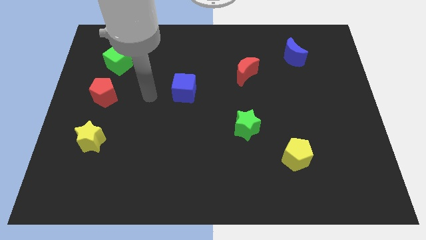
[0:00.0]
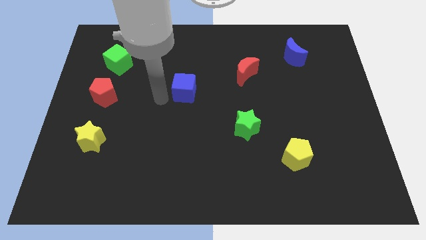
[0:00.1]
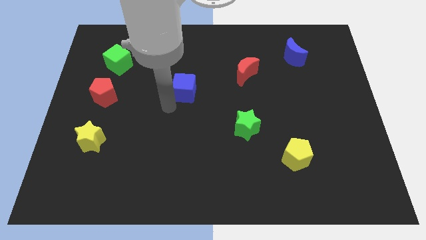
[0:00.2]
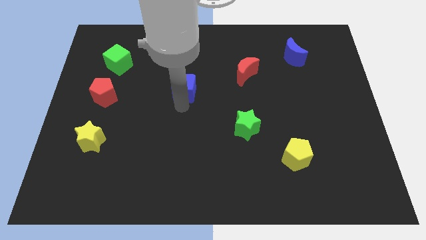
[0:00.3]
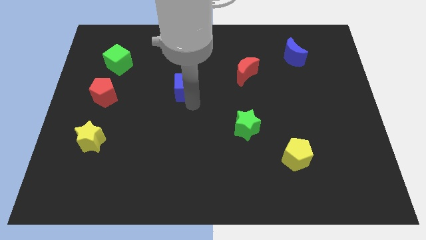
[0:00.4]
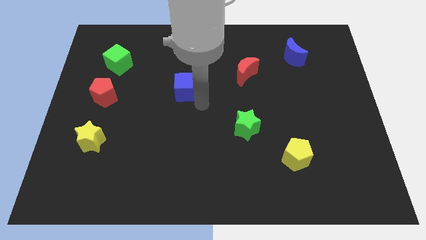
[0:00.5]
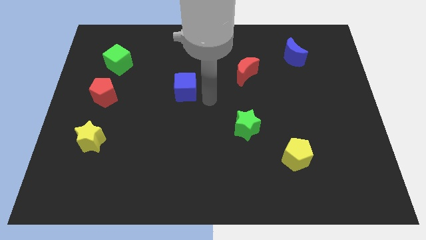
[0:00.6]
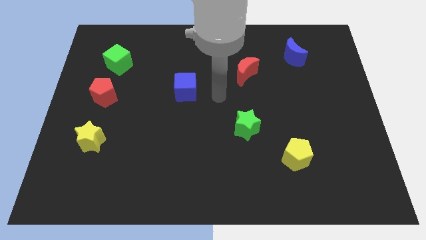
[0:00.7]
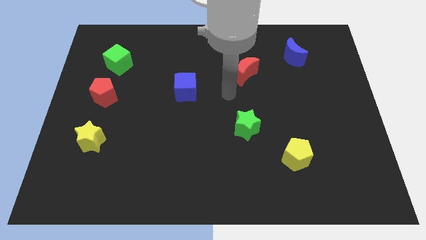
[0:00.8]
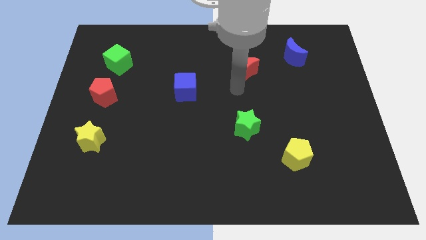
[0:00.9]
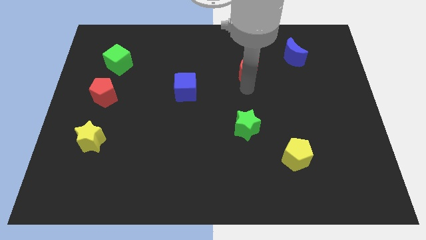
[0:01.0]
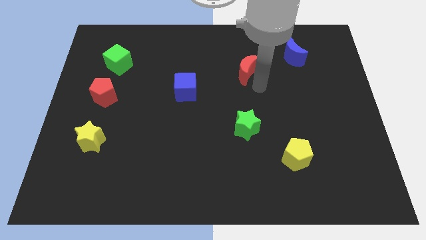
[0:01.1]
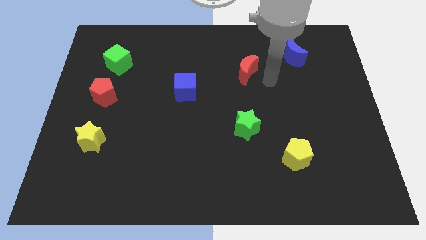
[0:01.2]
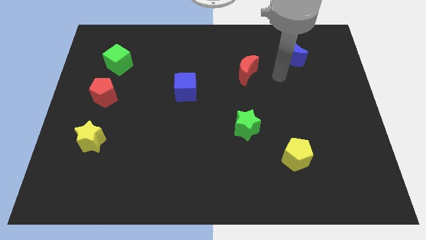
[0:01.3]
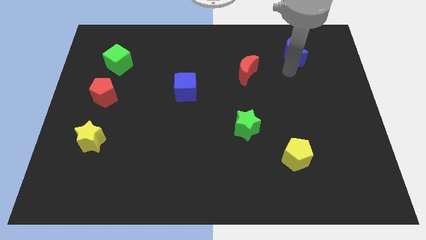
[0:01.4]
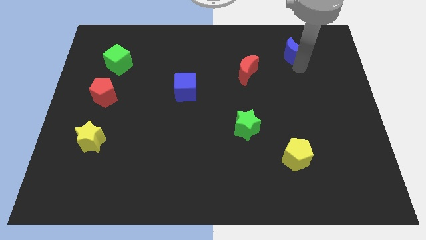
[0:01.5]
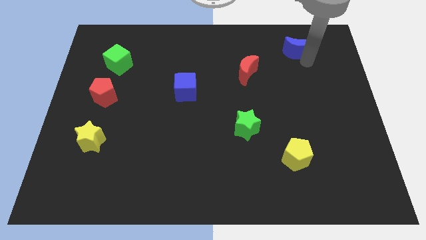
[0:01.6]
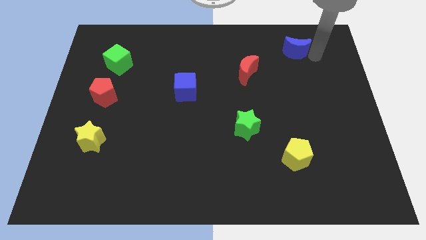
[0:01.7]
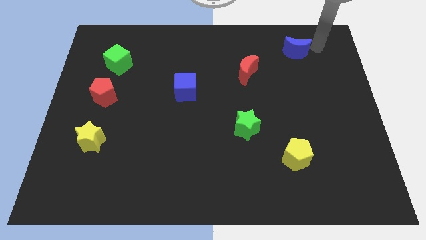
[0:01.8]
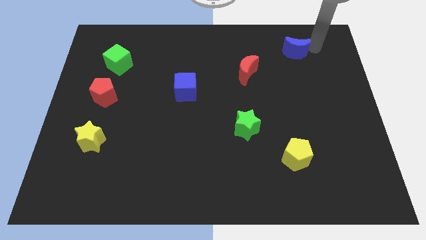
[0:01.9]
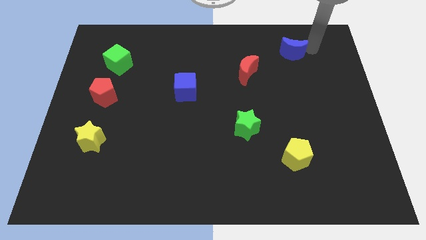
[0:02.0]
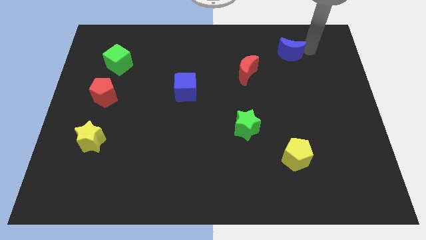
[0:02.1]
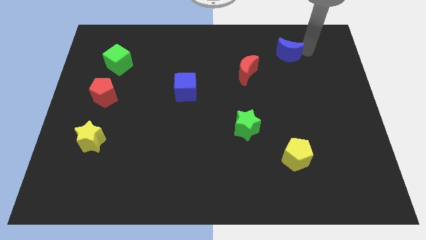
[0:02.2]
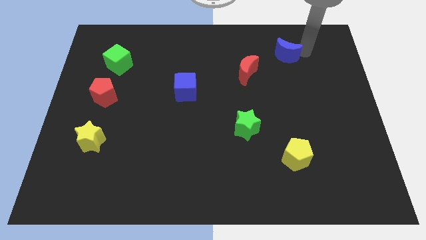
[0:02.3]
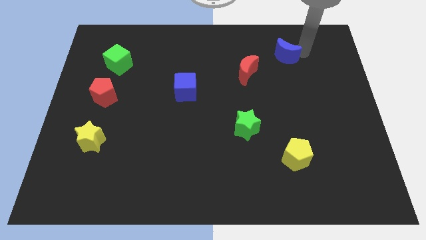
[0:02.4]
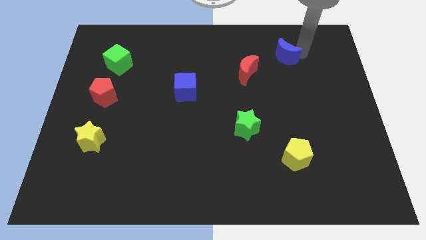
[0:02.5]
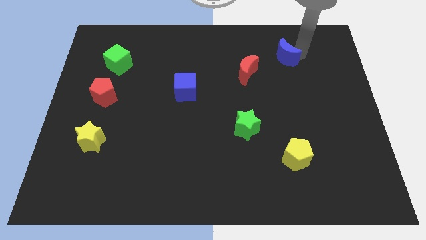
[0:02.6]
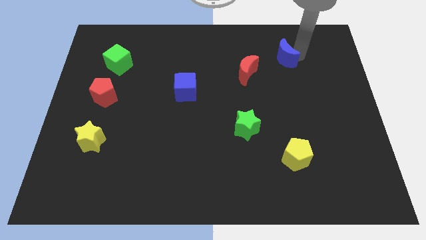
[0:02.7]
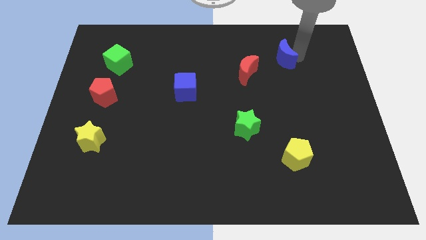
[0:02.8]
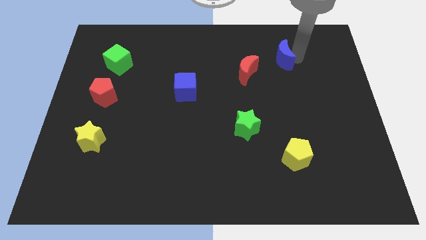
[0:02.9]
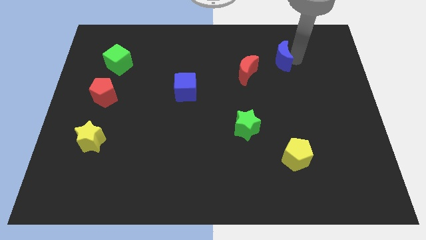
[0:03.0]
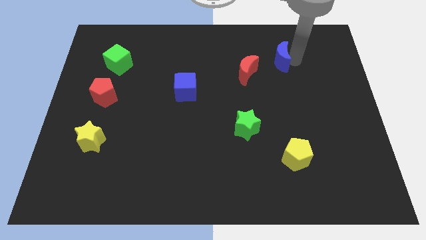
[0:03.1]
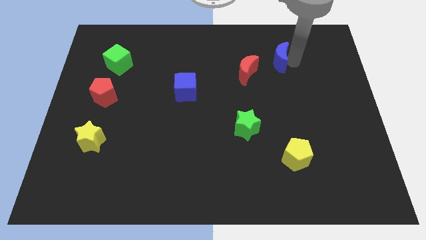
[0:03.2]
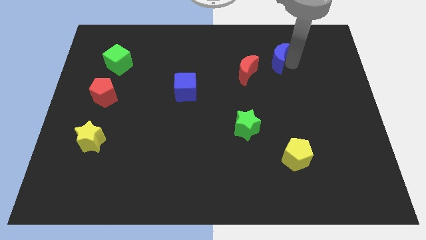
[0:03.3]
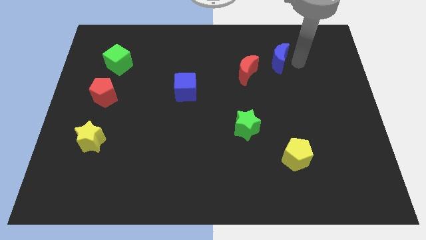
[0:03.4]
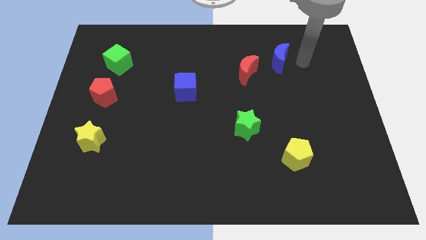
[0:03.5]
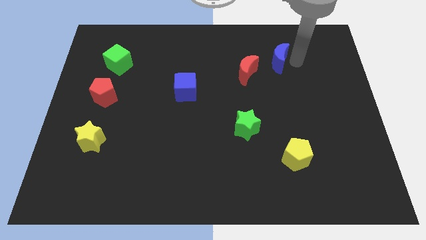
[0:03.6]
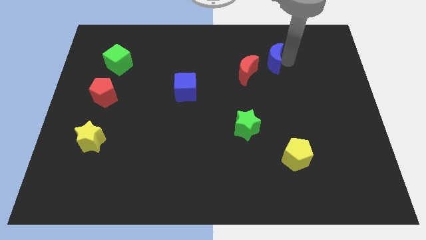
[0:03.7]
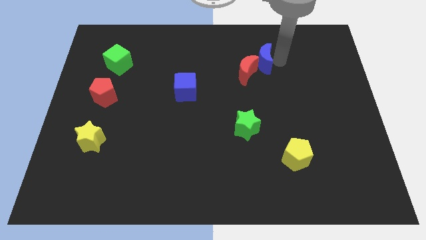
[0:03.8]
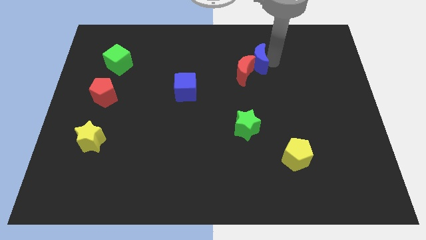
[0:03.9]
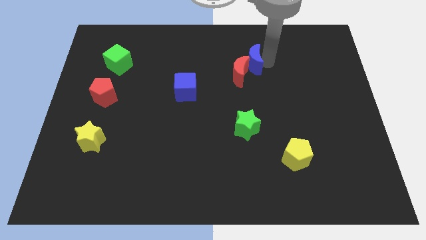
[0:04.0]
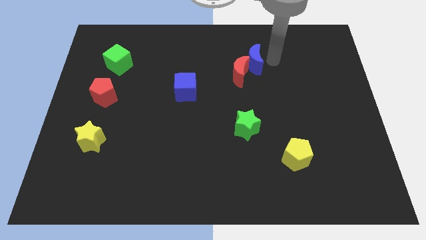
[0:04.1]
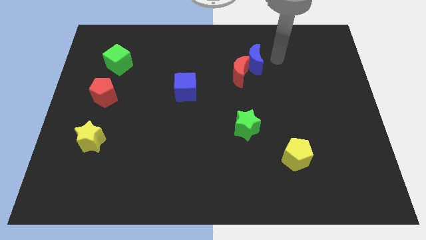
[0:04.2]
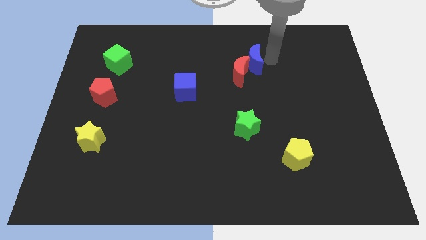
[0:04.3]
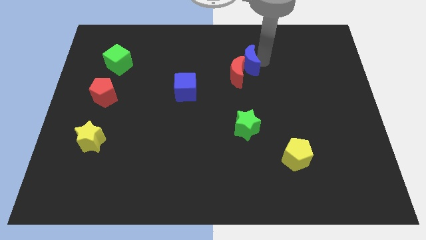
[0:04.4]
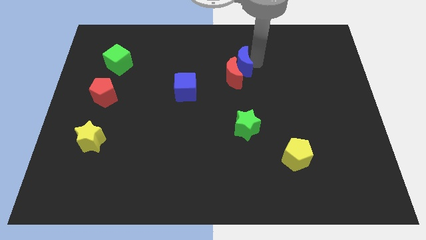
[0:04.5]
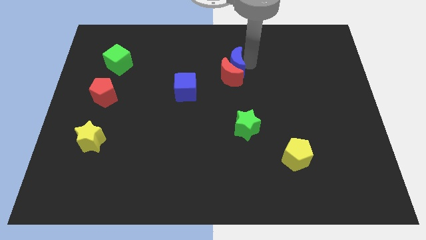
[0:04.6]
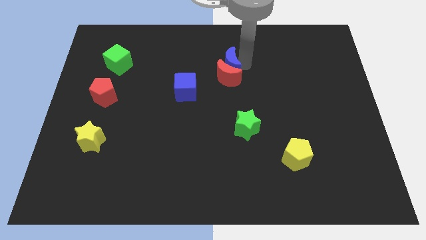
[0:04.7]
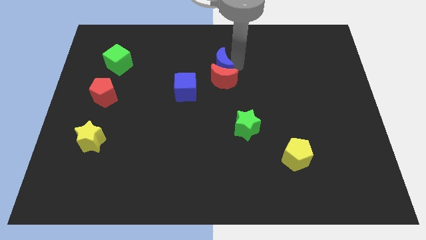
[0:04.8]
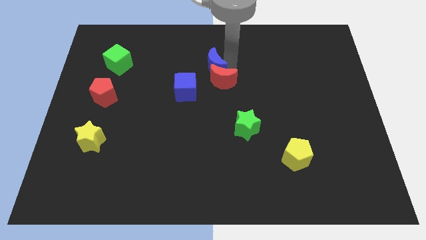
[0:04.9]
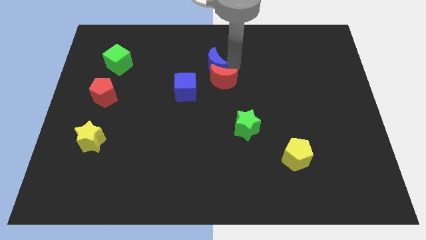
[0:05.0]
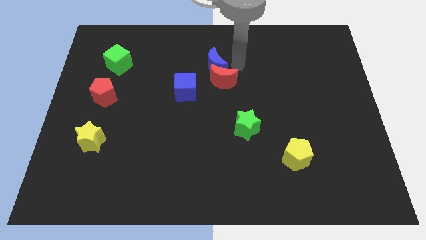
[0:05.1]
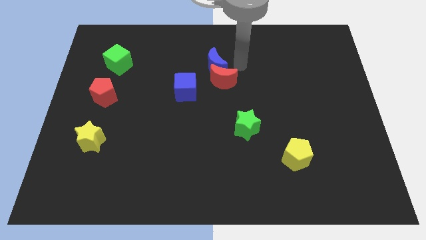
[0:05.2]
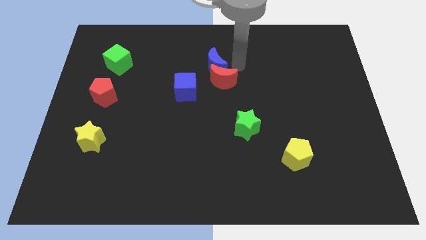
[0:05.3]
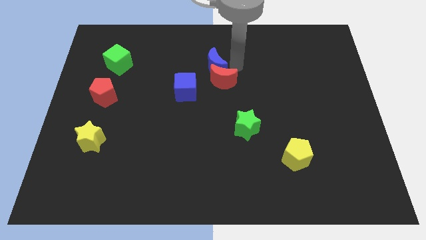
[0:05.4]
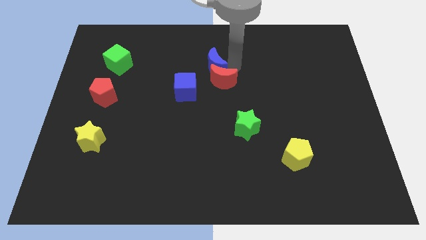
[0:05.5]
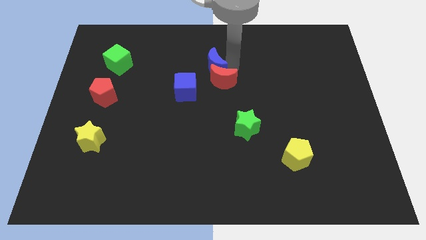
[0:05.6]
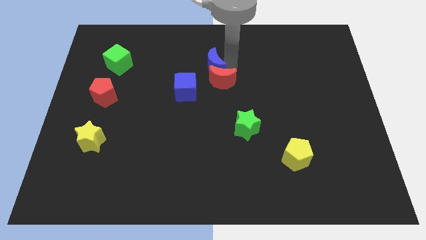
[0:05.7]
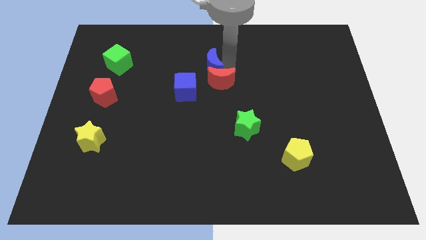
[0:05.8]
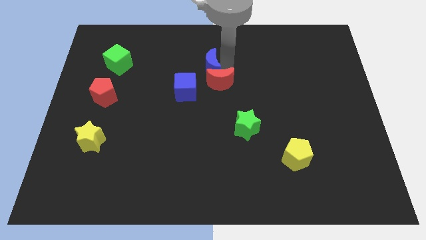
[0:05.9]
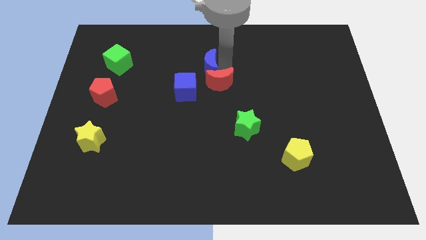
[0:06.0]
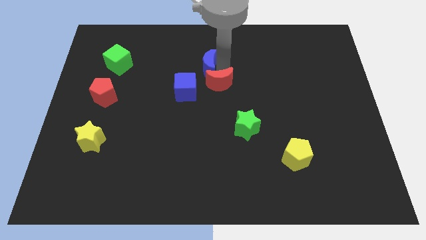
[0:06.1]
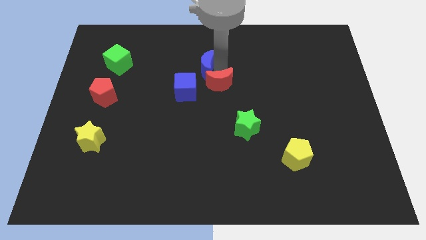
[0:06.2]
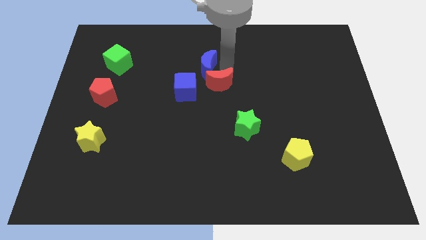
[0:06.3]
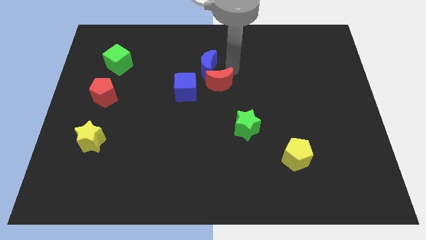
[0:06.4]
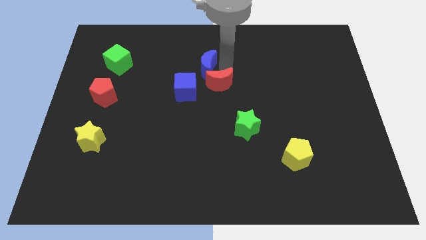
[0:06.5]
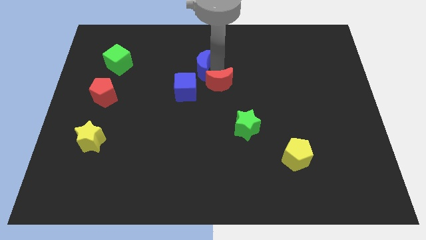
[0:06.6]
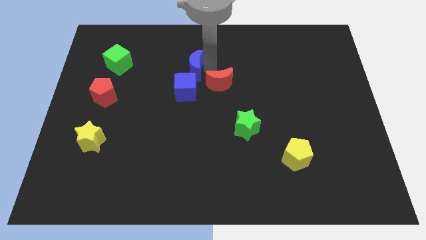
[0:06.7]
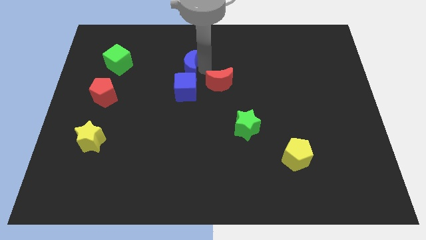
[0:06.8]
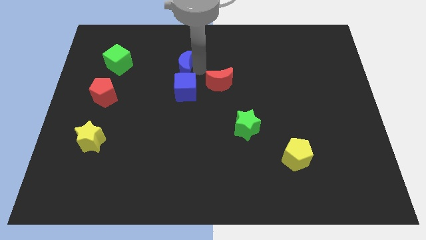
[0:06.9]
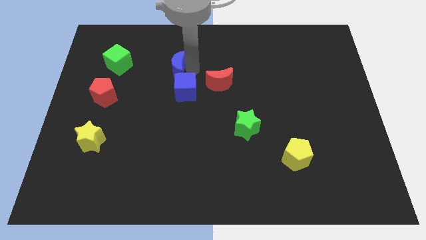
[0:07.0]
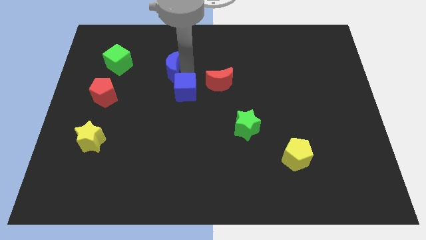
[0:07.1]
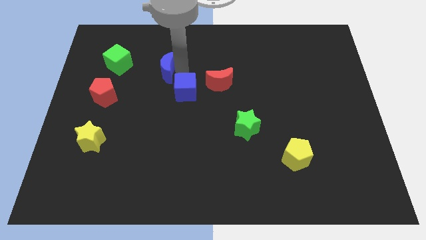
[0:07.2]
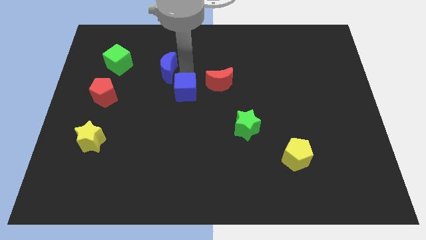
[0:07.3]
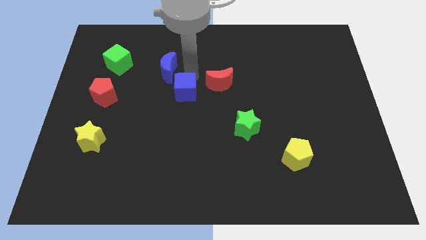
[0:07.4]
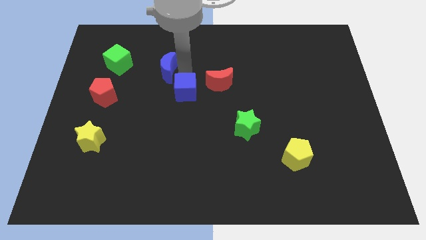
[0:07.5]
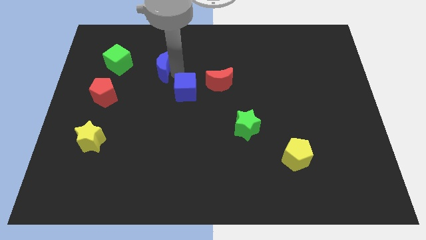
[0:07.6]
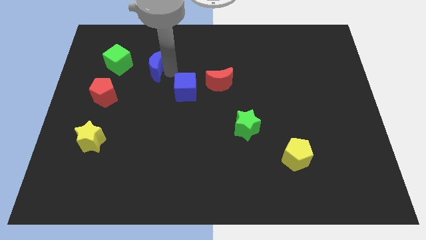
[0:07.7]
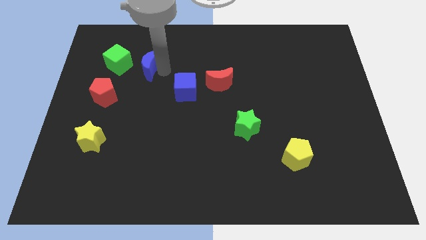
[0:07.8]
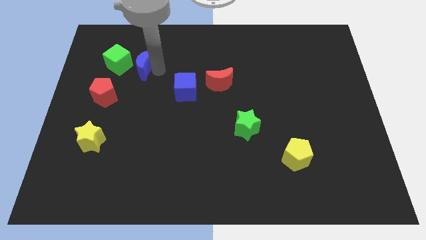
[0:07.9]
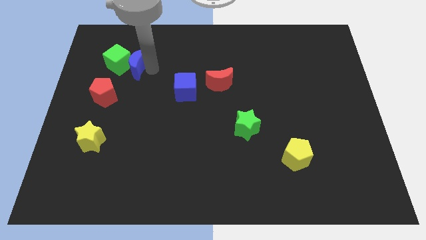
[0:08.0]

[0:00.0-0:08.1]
slide the blue moon towards the green cube
